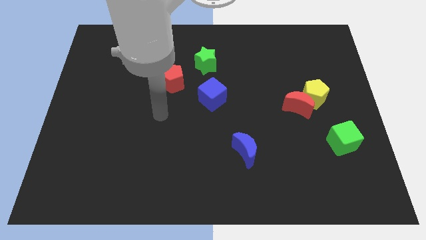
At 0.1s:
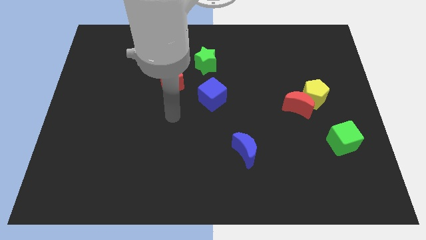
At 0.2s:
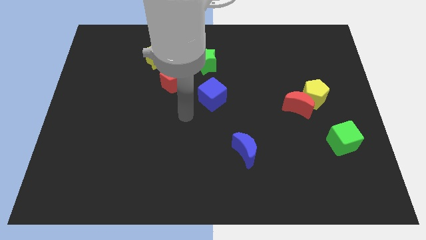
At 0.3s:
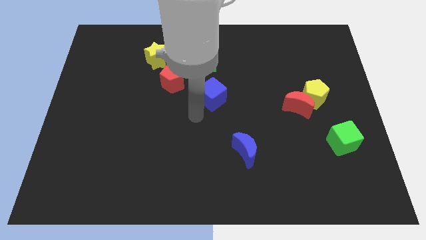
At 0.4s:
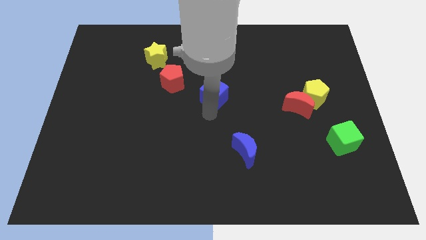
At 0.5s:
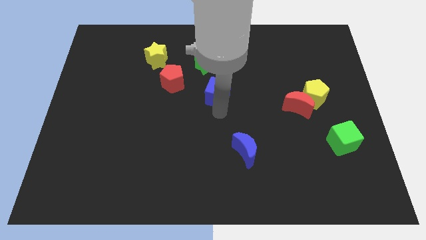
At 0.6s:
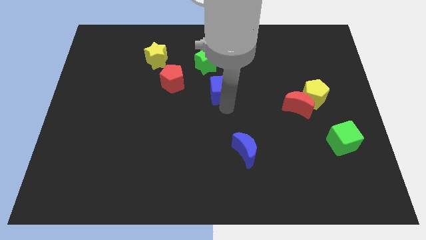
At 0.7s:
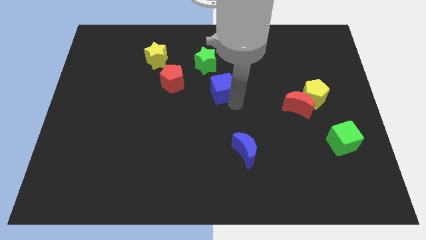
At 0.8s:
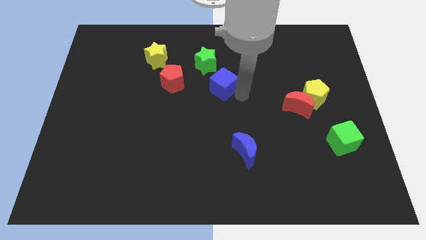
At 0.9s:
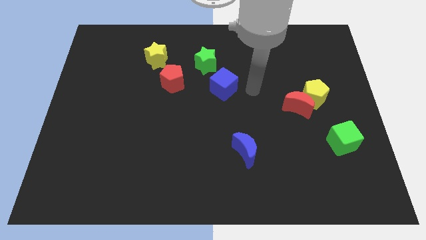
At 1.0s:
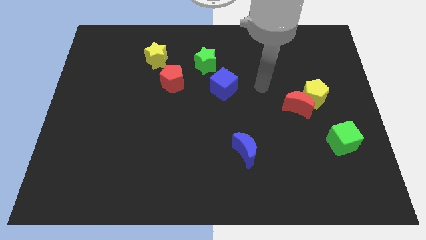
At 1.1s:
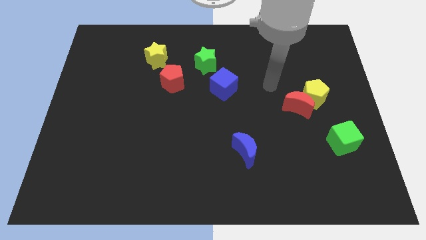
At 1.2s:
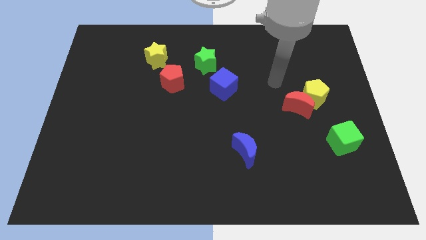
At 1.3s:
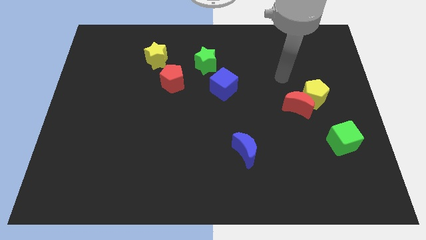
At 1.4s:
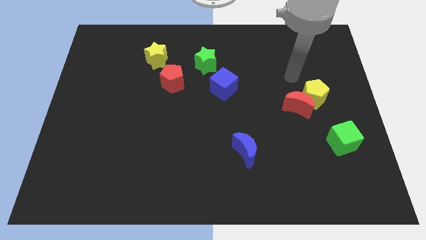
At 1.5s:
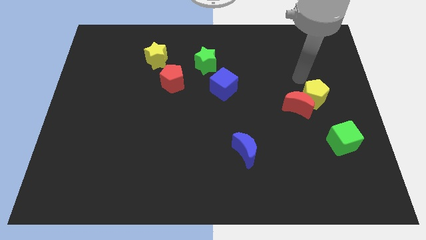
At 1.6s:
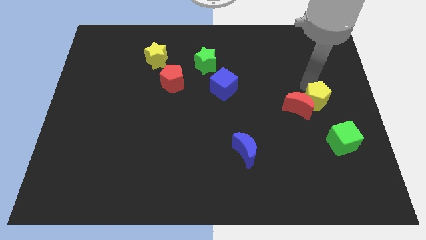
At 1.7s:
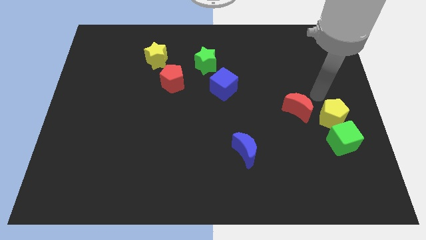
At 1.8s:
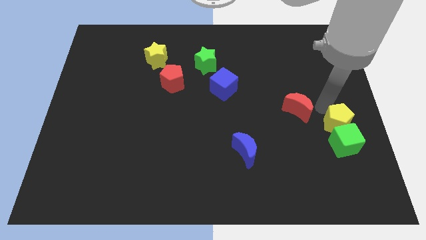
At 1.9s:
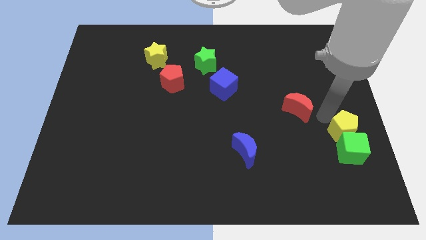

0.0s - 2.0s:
move the red moon away from the yellow pentagon

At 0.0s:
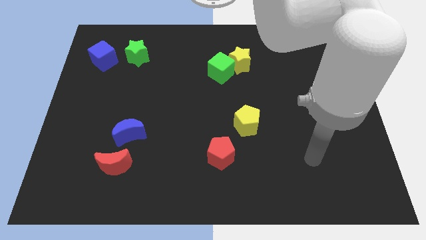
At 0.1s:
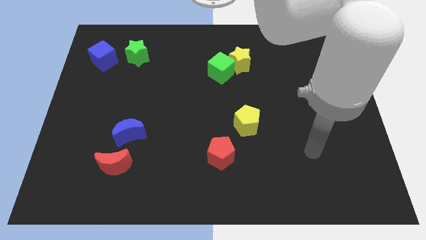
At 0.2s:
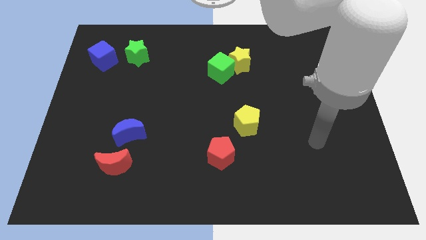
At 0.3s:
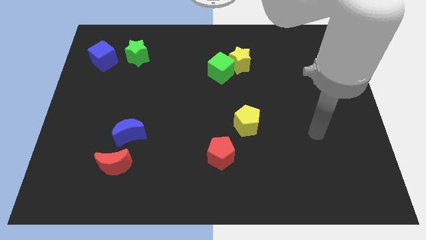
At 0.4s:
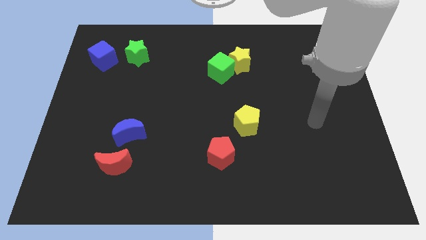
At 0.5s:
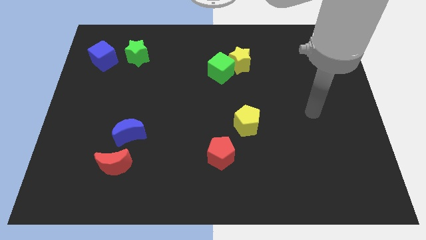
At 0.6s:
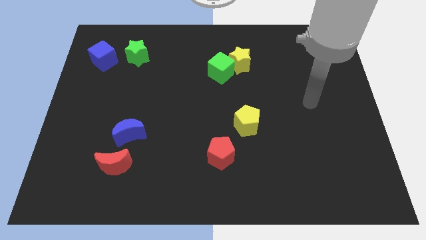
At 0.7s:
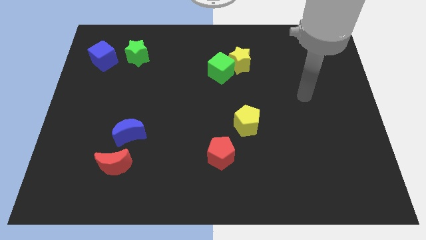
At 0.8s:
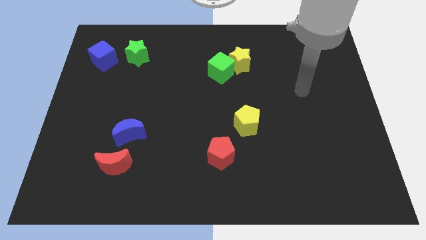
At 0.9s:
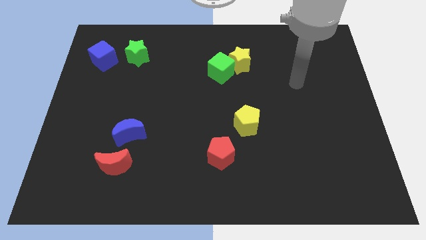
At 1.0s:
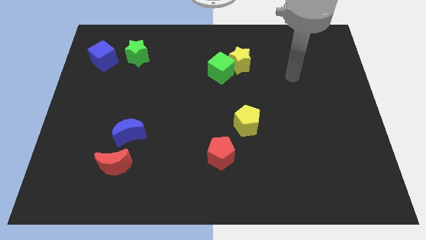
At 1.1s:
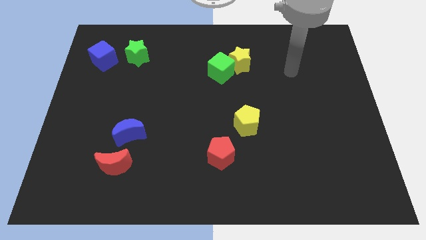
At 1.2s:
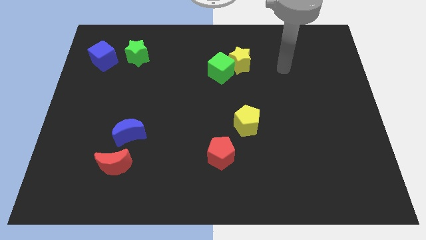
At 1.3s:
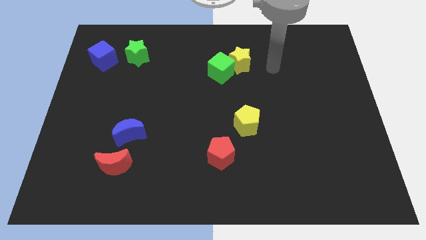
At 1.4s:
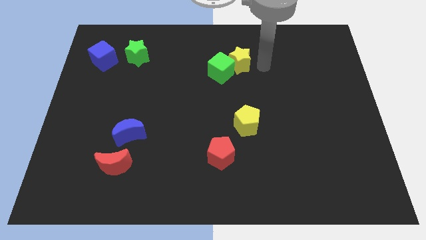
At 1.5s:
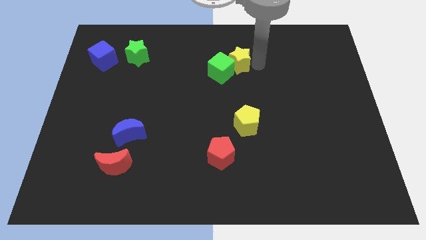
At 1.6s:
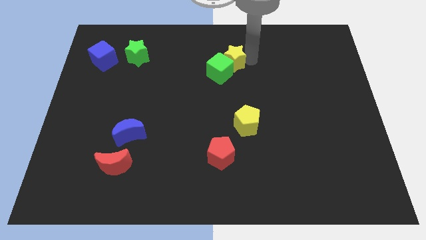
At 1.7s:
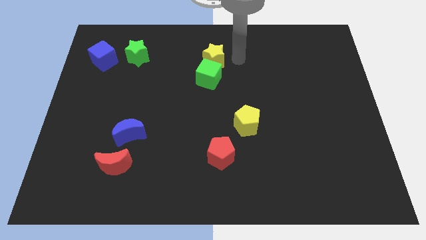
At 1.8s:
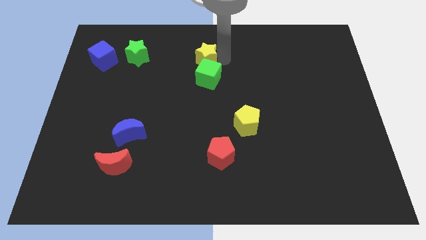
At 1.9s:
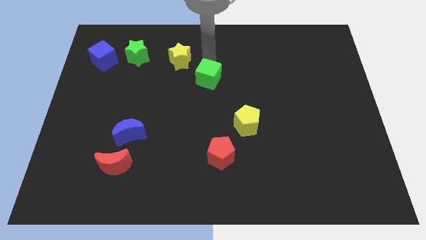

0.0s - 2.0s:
pull the green cube apart from the yellow star

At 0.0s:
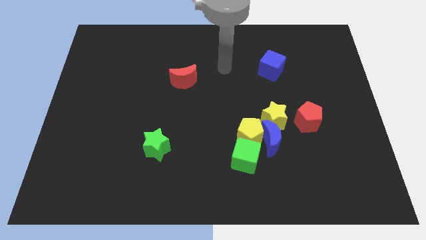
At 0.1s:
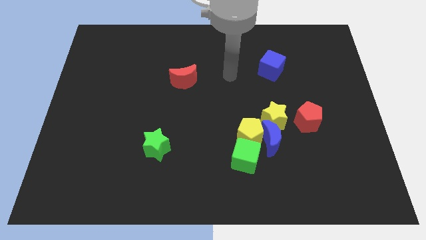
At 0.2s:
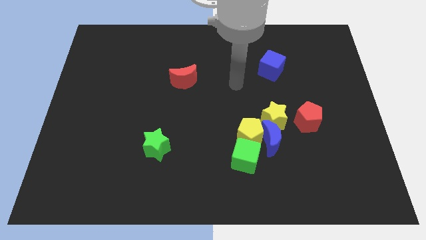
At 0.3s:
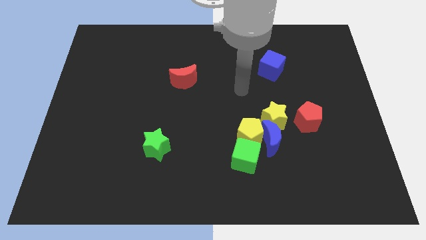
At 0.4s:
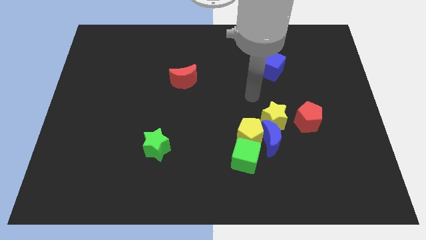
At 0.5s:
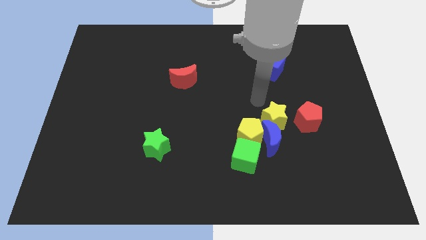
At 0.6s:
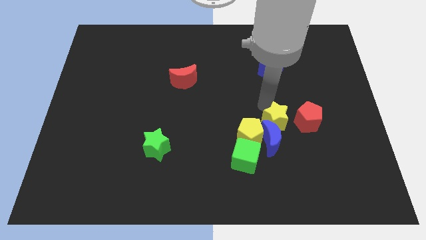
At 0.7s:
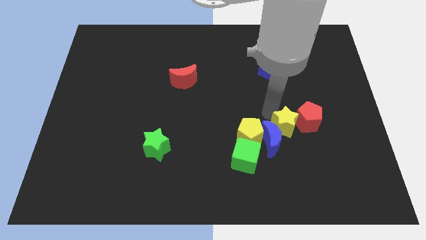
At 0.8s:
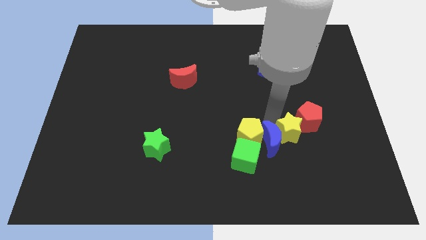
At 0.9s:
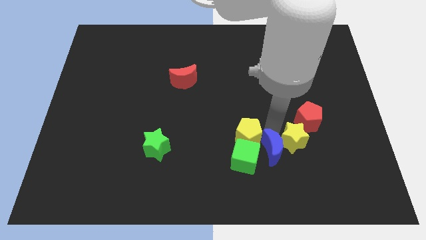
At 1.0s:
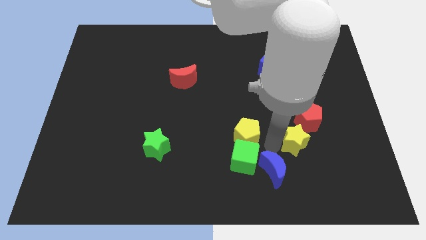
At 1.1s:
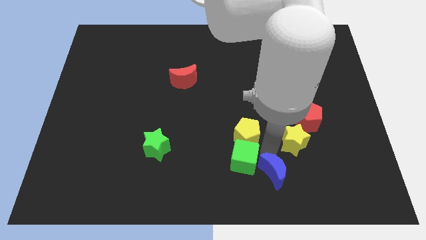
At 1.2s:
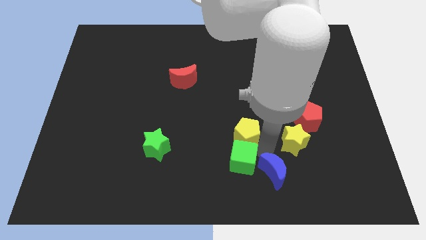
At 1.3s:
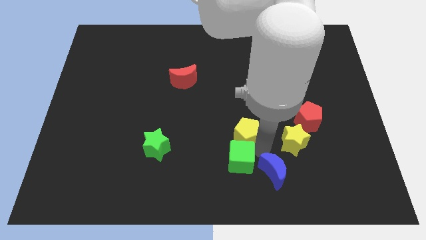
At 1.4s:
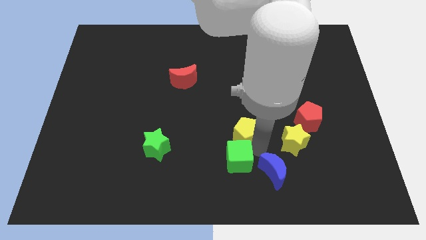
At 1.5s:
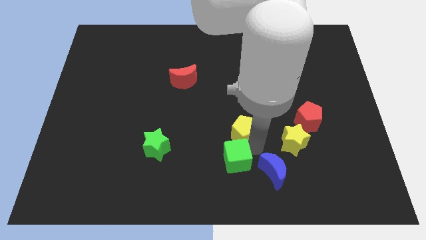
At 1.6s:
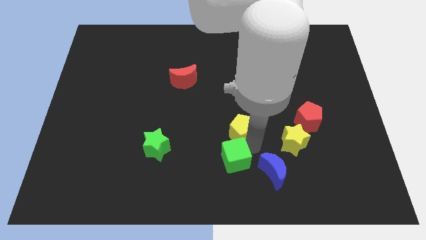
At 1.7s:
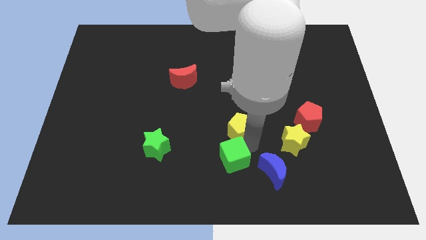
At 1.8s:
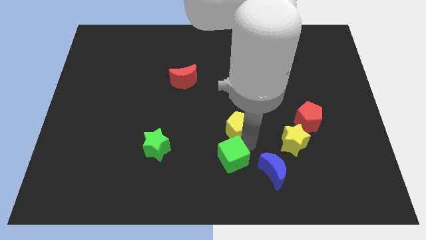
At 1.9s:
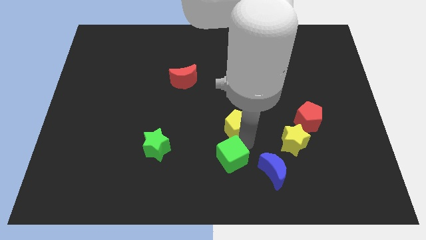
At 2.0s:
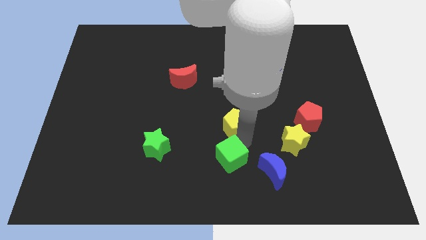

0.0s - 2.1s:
move the yellow pentagon away from the group of blocks

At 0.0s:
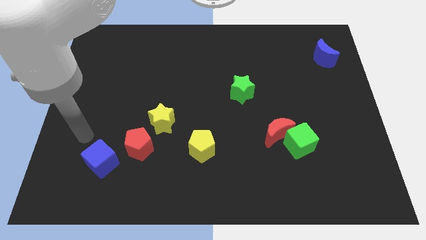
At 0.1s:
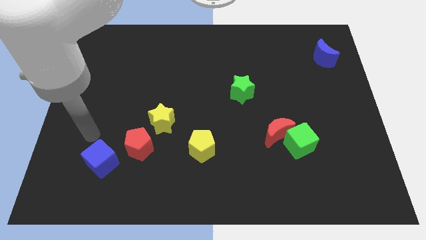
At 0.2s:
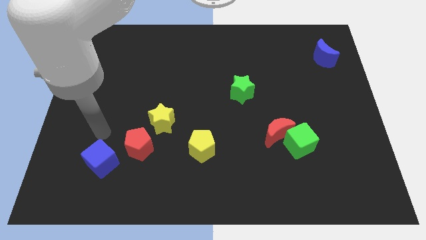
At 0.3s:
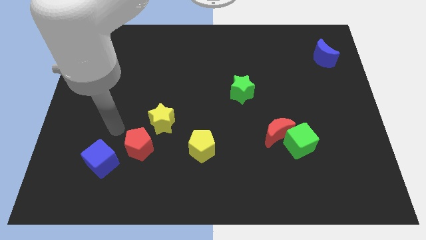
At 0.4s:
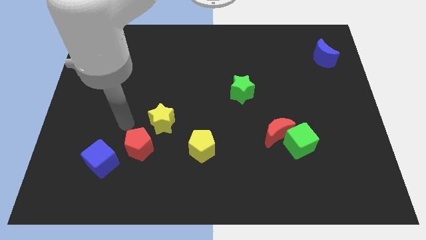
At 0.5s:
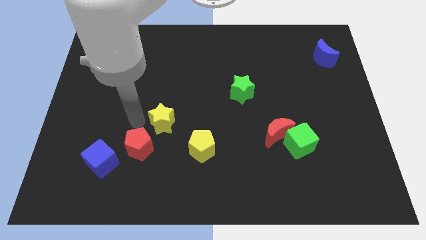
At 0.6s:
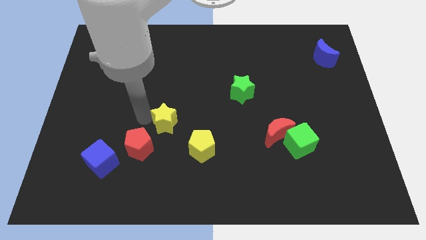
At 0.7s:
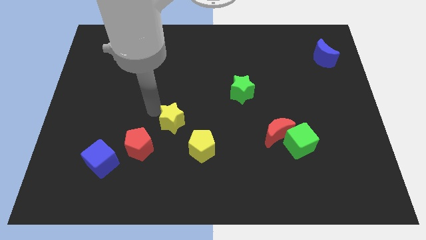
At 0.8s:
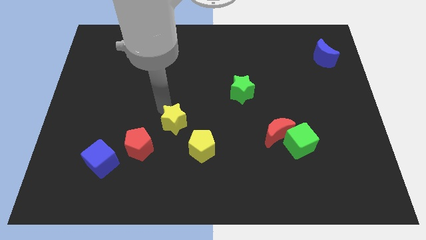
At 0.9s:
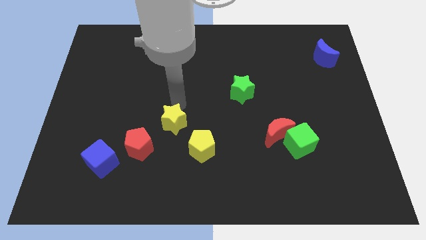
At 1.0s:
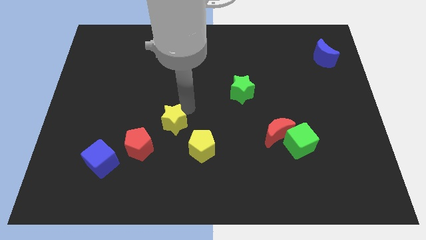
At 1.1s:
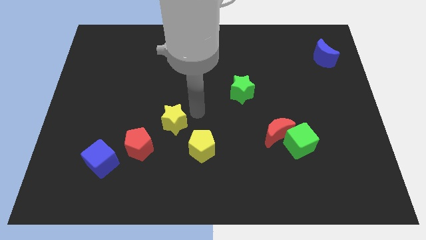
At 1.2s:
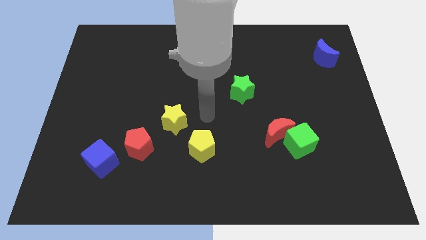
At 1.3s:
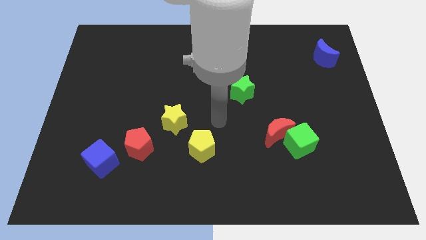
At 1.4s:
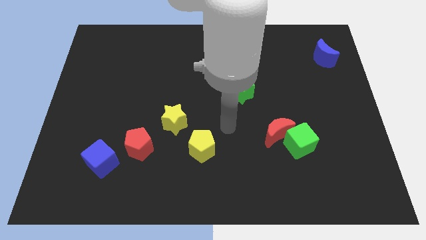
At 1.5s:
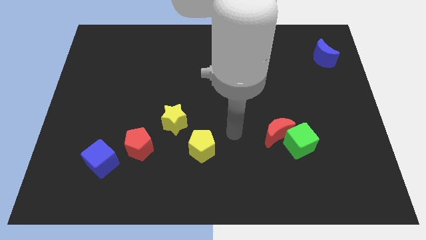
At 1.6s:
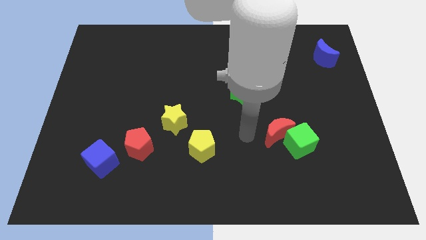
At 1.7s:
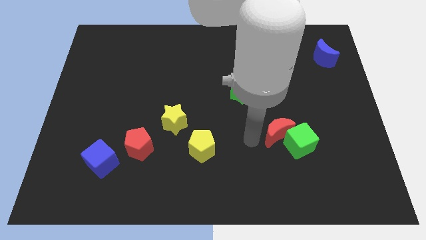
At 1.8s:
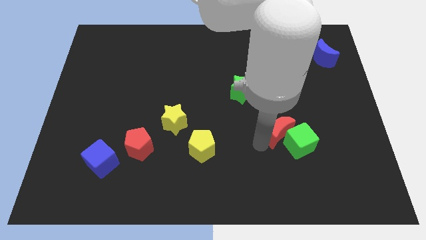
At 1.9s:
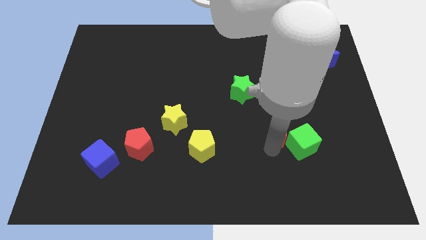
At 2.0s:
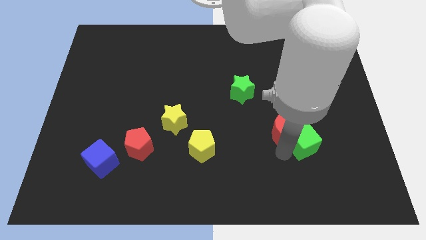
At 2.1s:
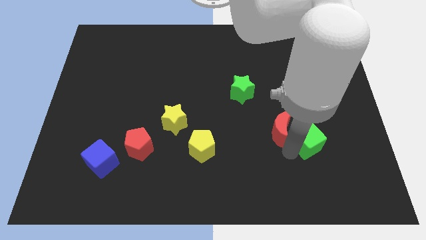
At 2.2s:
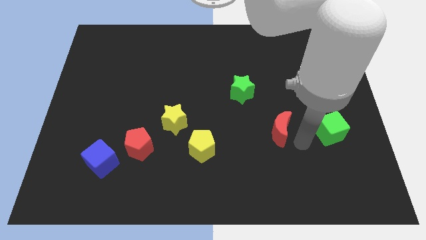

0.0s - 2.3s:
separate the red moon from the green cube

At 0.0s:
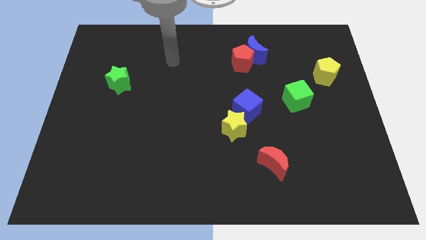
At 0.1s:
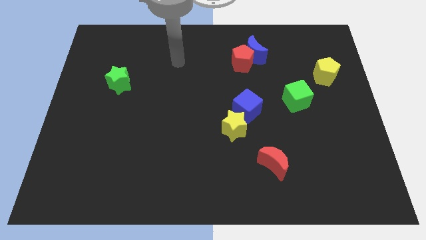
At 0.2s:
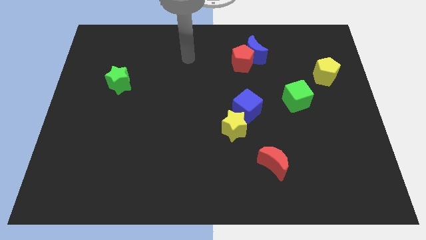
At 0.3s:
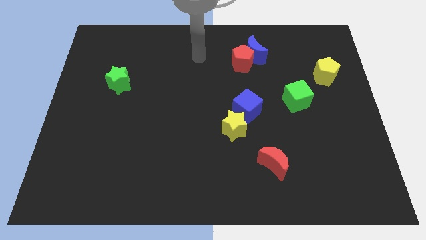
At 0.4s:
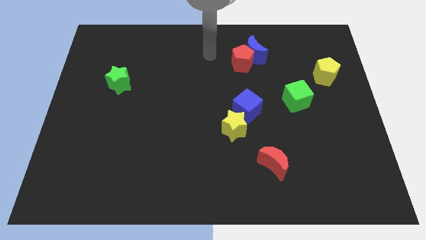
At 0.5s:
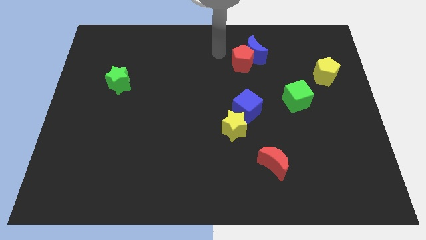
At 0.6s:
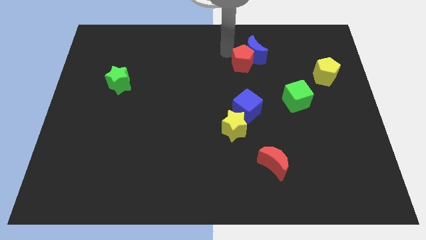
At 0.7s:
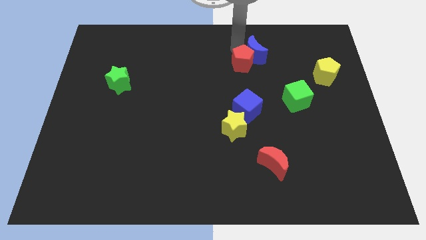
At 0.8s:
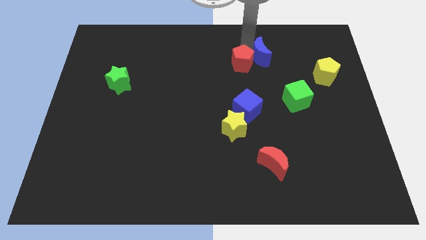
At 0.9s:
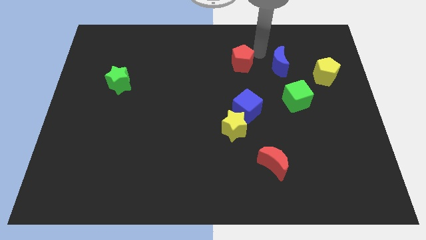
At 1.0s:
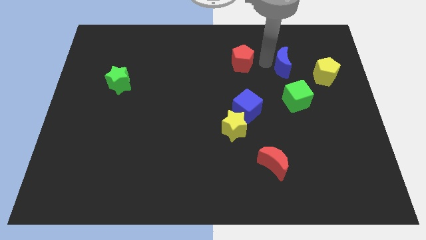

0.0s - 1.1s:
move the red pentagon away from the blue moon
